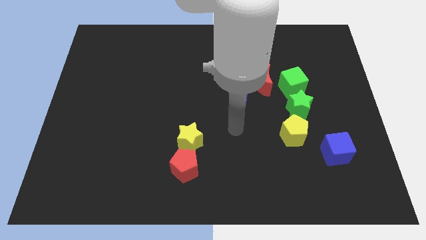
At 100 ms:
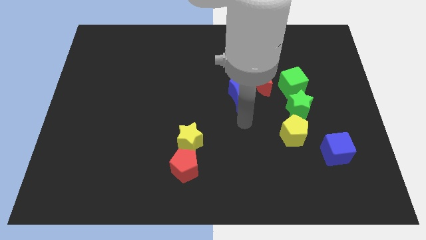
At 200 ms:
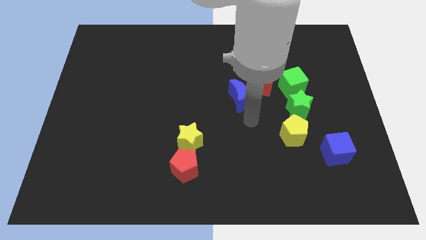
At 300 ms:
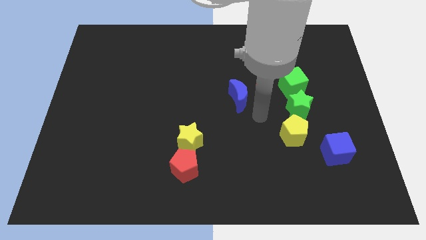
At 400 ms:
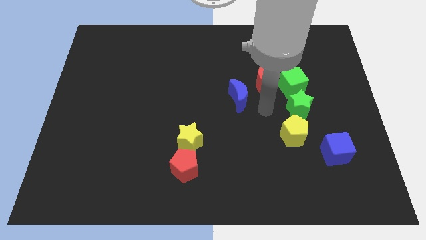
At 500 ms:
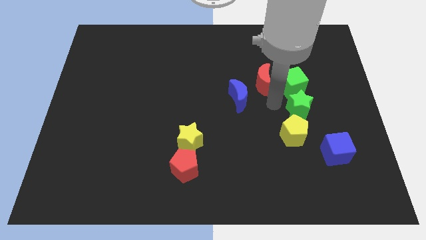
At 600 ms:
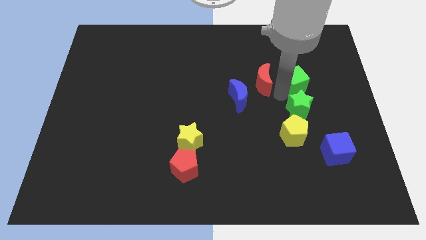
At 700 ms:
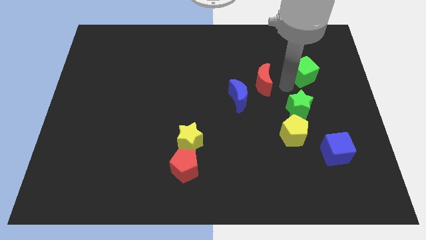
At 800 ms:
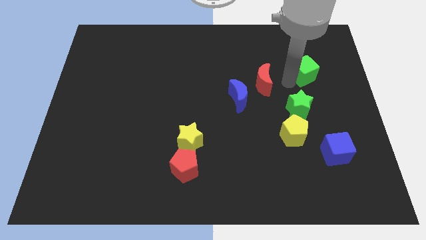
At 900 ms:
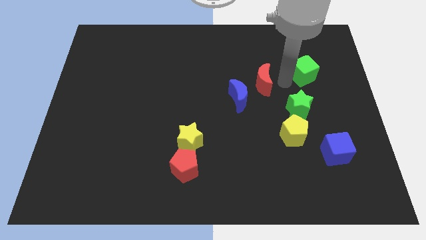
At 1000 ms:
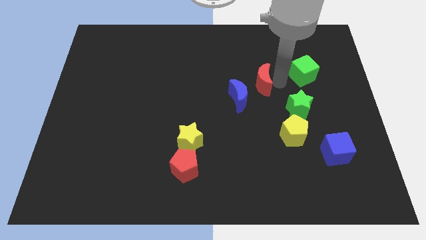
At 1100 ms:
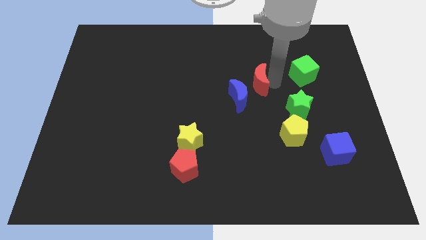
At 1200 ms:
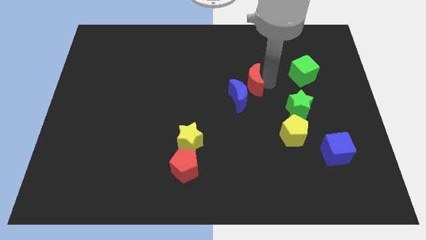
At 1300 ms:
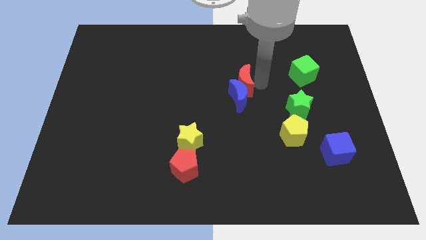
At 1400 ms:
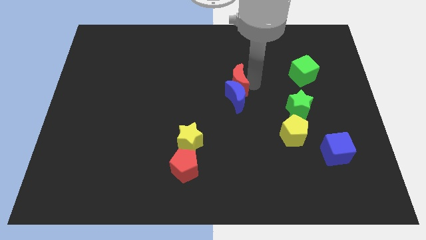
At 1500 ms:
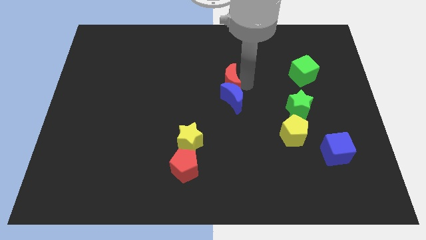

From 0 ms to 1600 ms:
slightly slide the red moon left

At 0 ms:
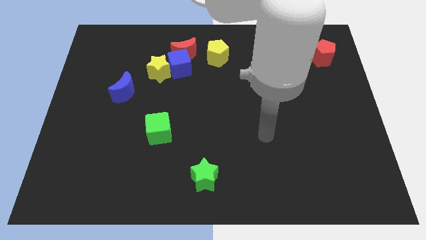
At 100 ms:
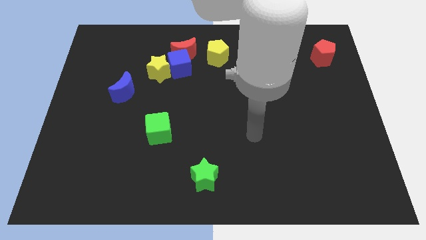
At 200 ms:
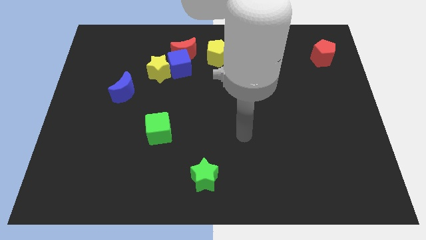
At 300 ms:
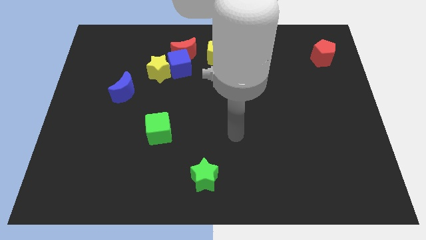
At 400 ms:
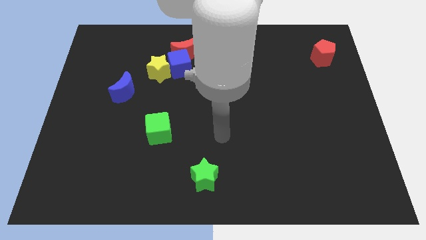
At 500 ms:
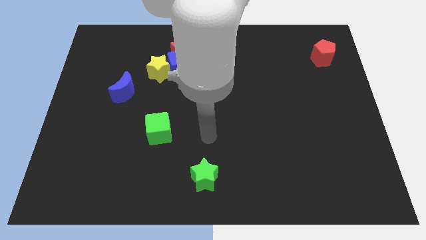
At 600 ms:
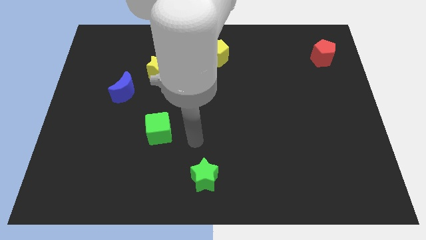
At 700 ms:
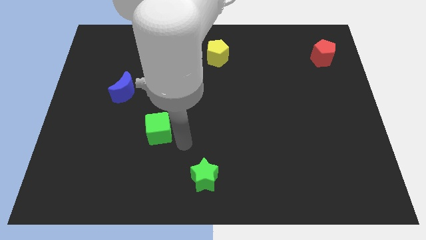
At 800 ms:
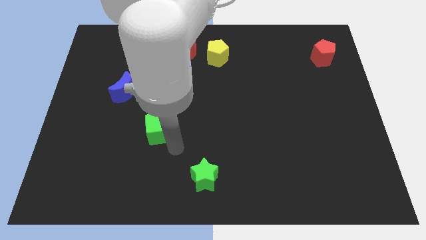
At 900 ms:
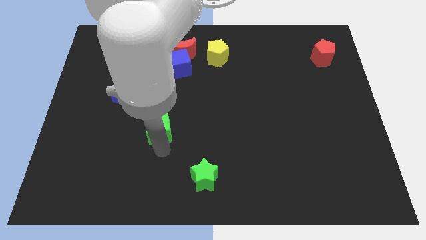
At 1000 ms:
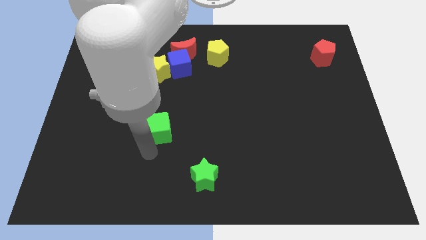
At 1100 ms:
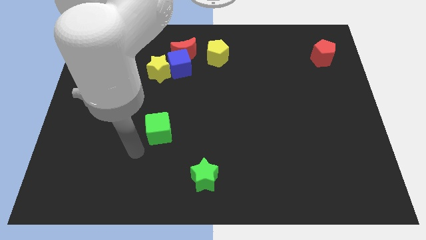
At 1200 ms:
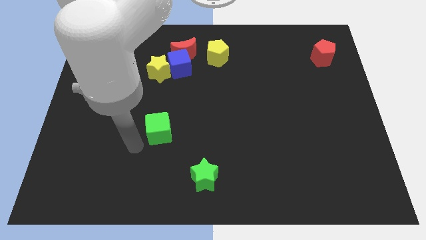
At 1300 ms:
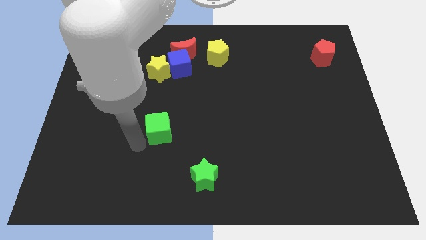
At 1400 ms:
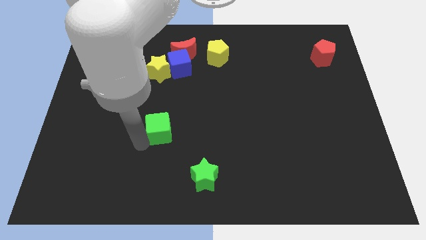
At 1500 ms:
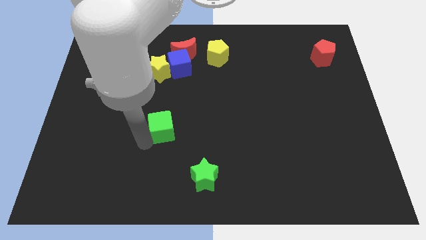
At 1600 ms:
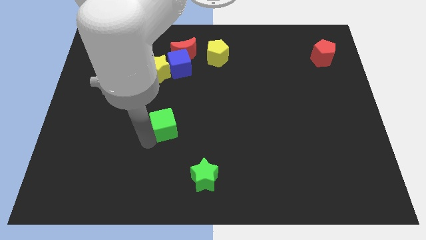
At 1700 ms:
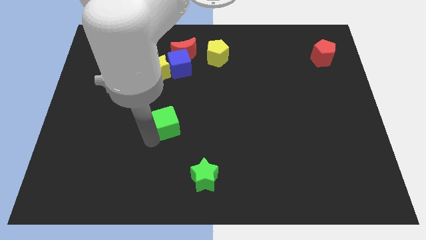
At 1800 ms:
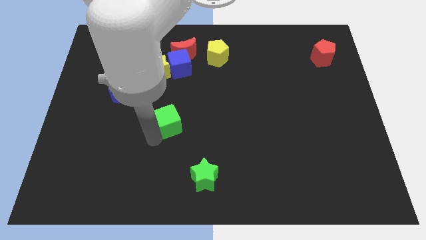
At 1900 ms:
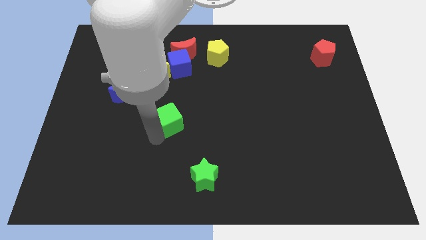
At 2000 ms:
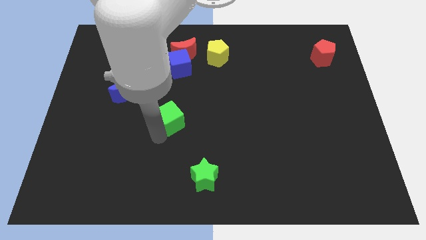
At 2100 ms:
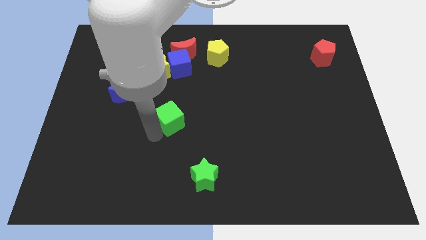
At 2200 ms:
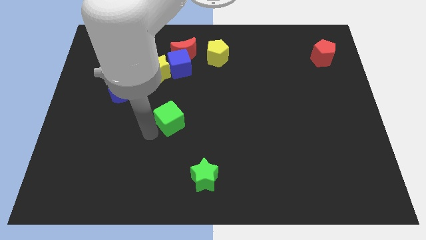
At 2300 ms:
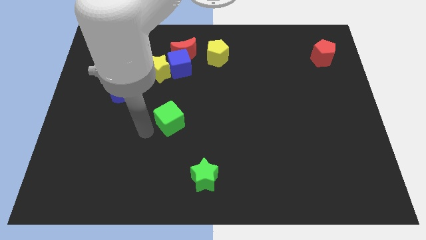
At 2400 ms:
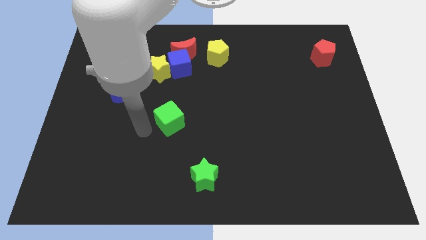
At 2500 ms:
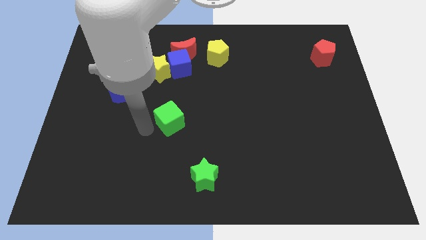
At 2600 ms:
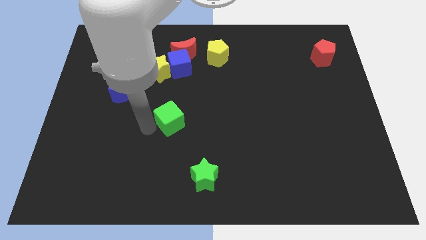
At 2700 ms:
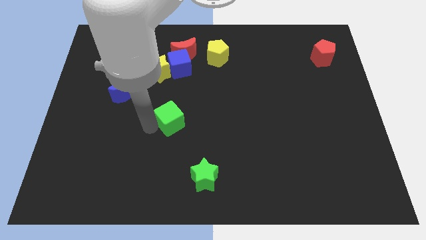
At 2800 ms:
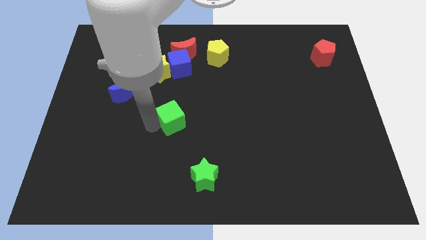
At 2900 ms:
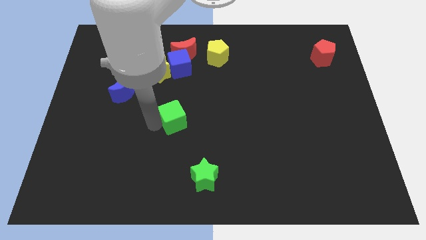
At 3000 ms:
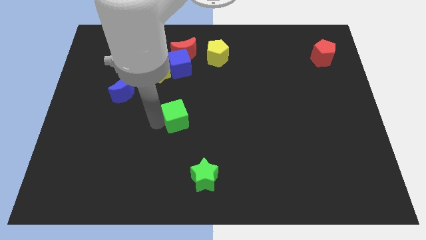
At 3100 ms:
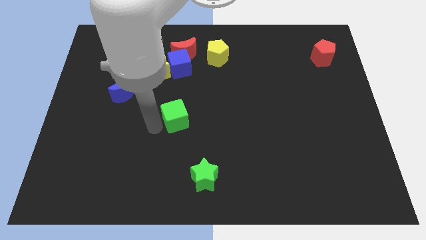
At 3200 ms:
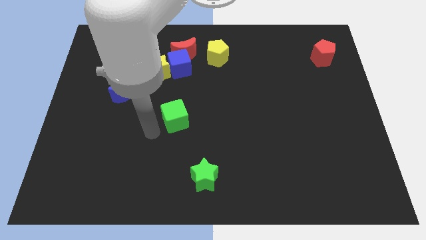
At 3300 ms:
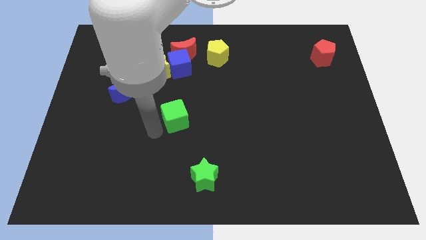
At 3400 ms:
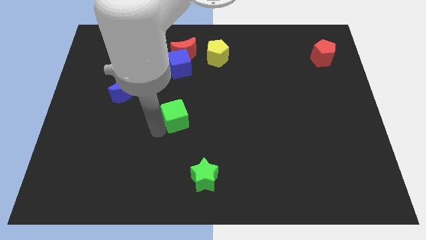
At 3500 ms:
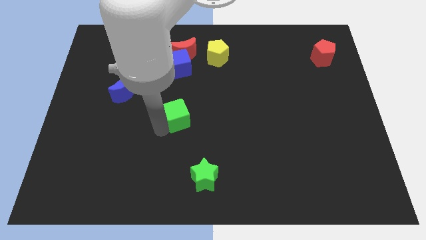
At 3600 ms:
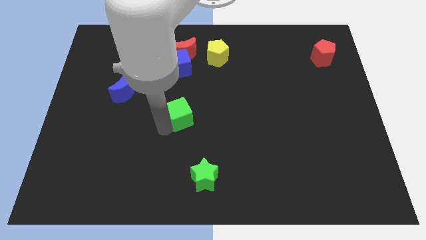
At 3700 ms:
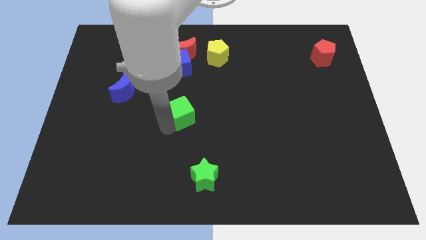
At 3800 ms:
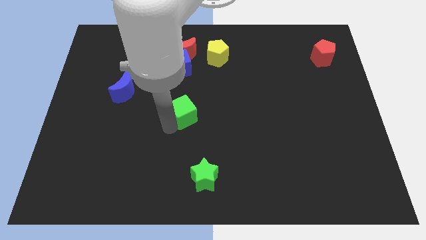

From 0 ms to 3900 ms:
move the green cube upwards and then to the right a bit

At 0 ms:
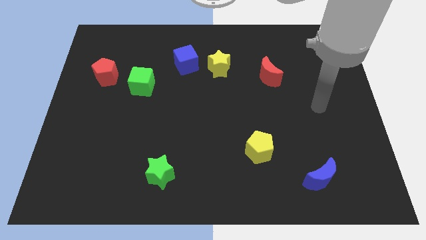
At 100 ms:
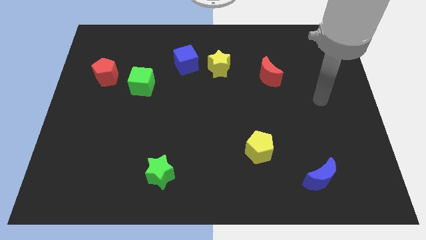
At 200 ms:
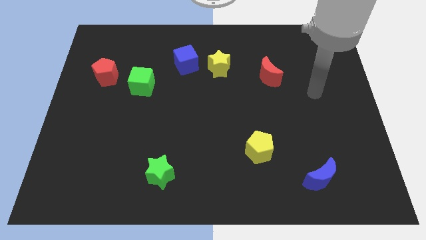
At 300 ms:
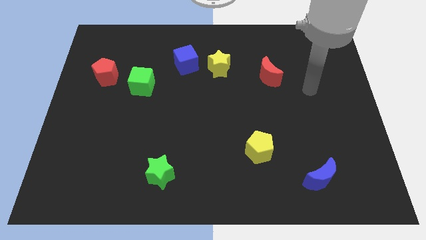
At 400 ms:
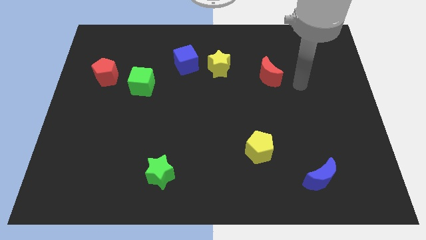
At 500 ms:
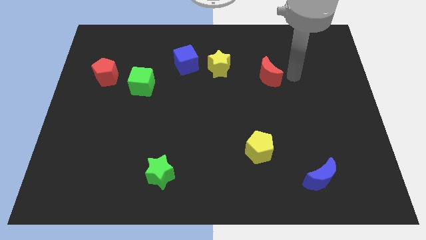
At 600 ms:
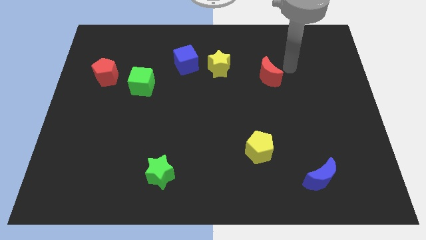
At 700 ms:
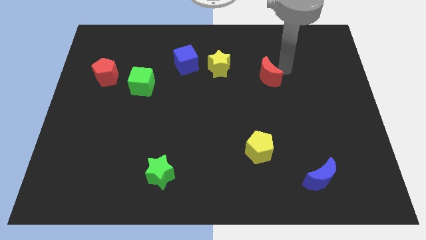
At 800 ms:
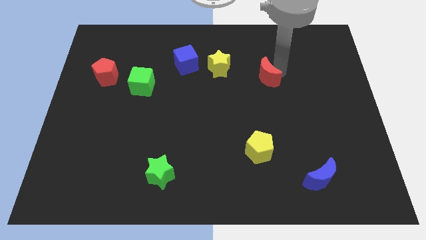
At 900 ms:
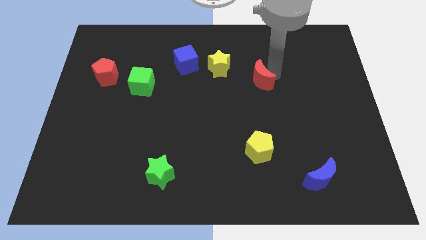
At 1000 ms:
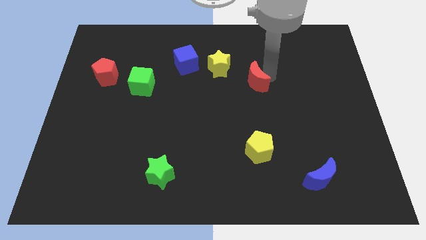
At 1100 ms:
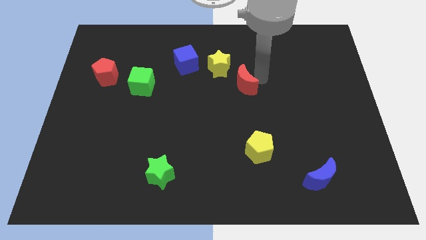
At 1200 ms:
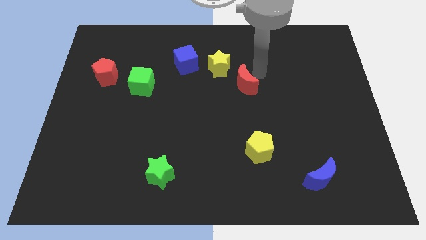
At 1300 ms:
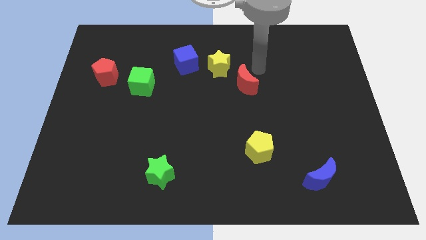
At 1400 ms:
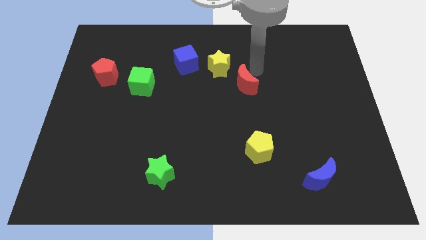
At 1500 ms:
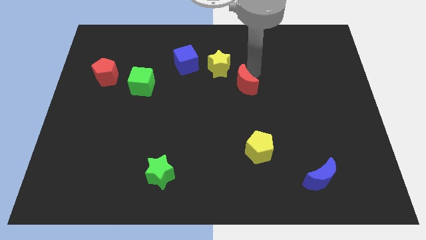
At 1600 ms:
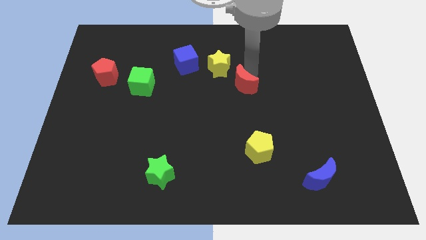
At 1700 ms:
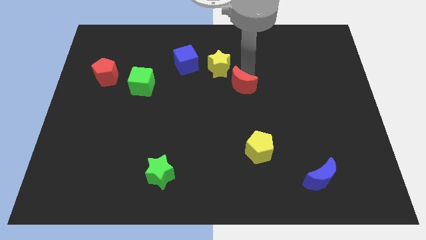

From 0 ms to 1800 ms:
move the red moon a bit down and to the left

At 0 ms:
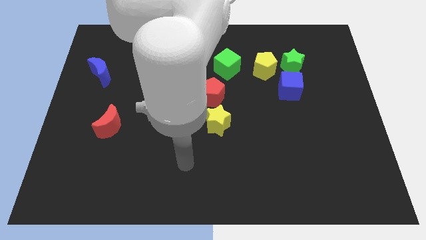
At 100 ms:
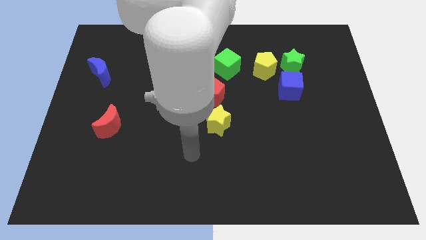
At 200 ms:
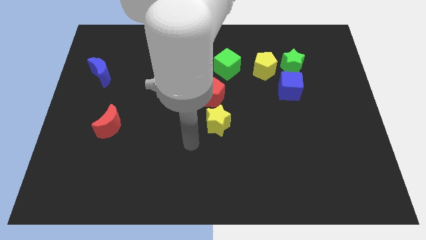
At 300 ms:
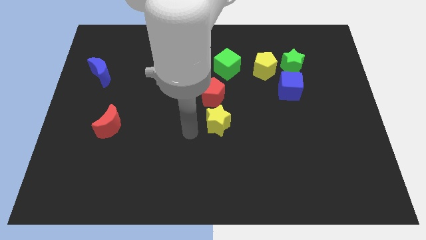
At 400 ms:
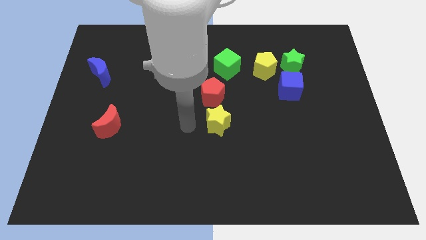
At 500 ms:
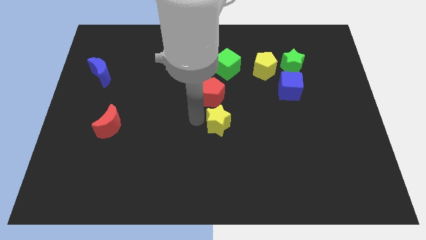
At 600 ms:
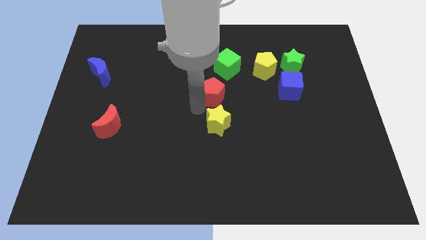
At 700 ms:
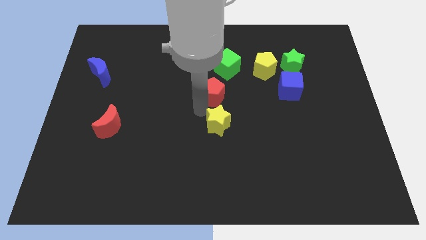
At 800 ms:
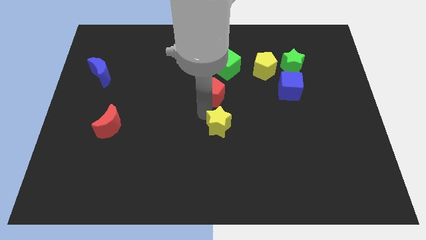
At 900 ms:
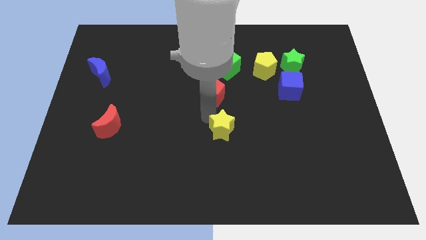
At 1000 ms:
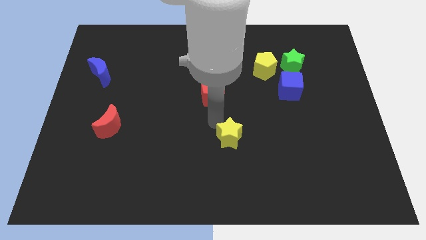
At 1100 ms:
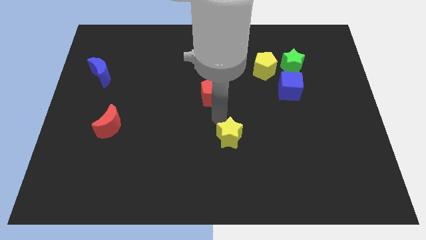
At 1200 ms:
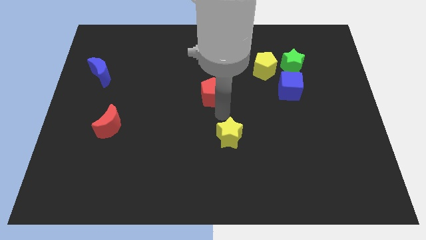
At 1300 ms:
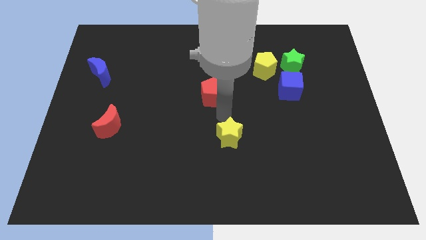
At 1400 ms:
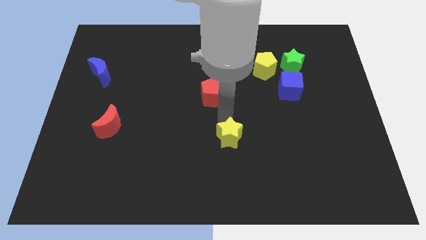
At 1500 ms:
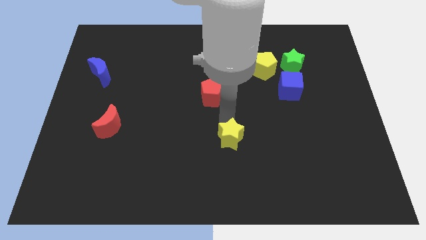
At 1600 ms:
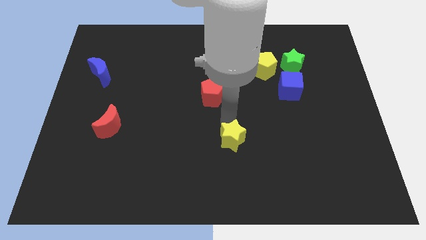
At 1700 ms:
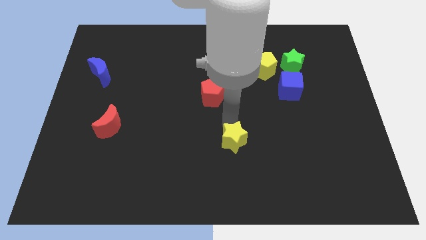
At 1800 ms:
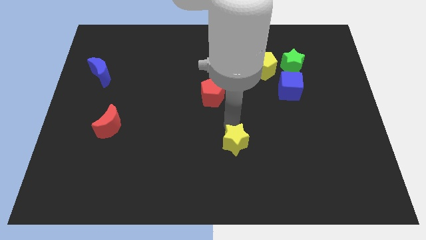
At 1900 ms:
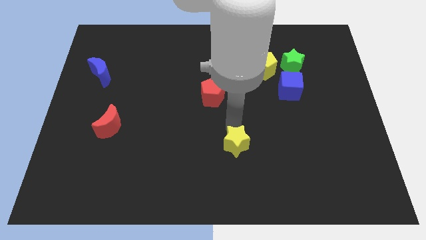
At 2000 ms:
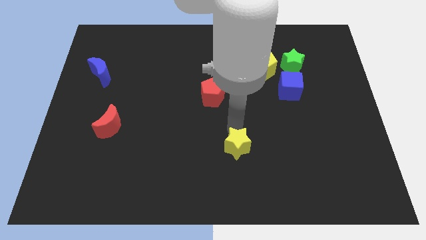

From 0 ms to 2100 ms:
slightly slide the yellow star downwards and to the right diagonally
